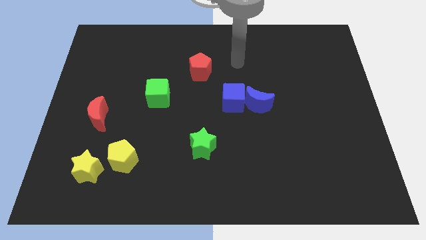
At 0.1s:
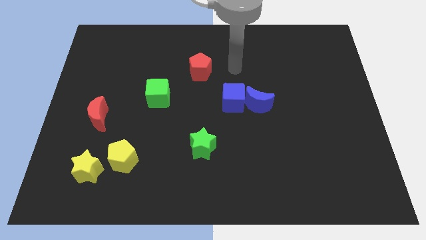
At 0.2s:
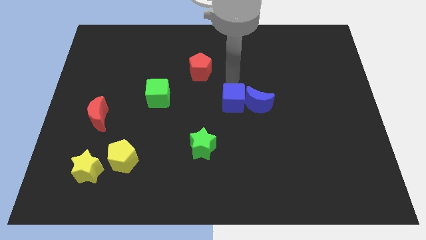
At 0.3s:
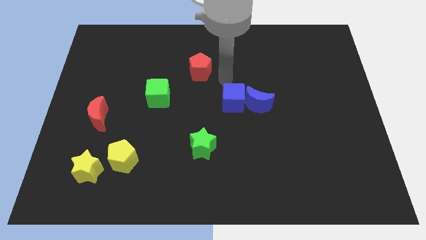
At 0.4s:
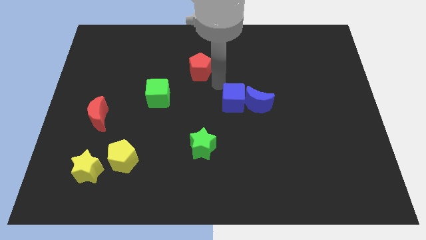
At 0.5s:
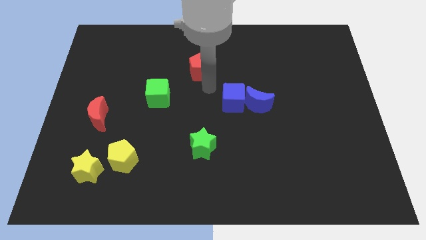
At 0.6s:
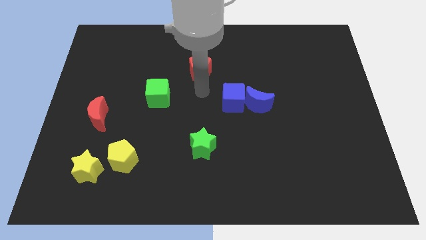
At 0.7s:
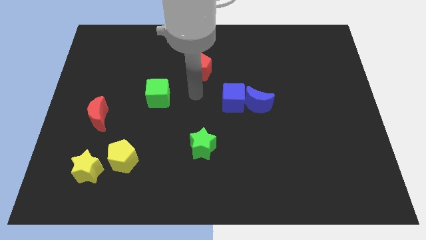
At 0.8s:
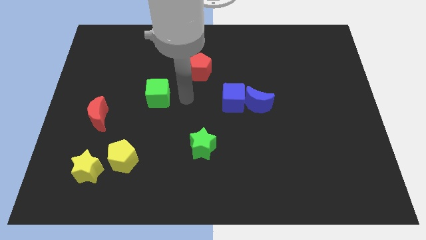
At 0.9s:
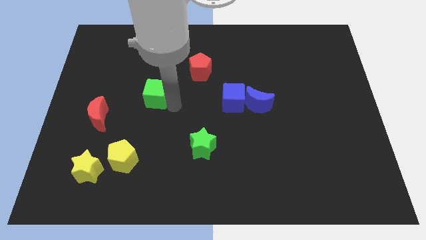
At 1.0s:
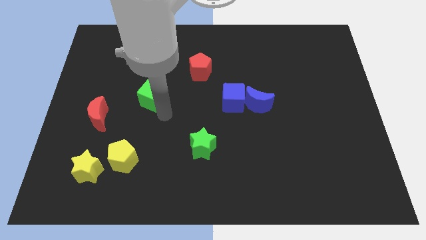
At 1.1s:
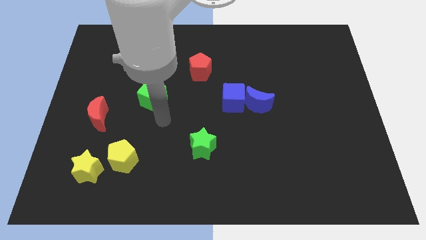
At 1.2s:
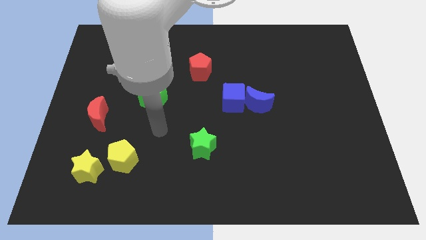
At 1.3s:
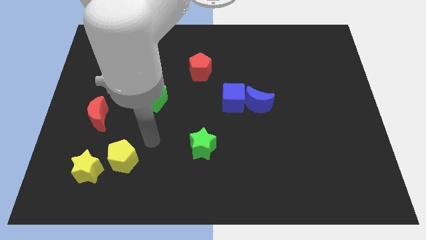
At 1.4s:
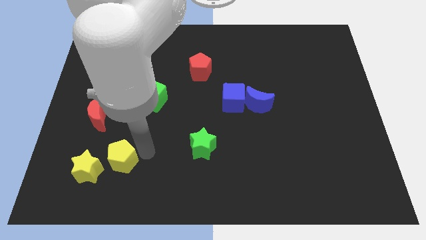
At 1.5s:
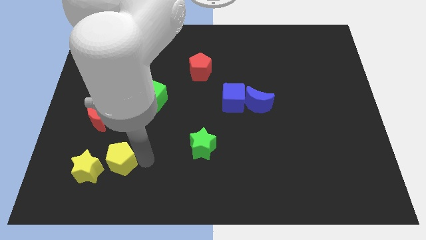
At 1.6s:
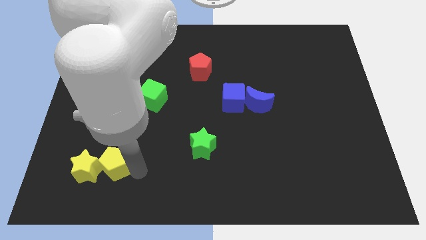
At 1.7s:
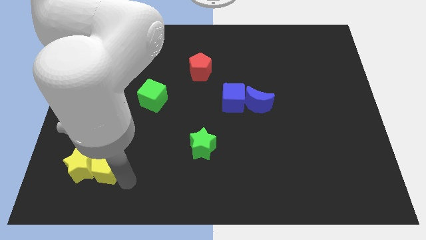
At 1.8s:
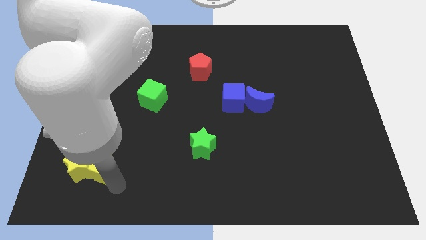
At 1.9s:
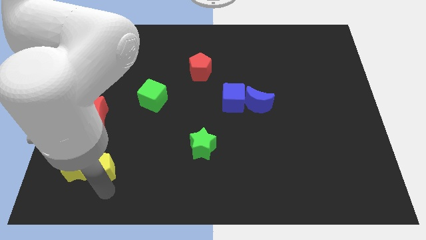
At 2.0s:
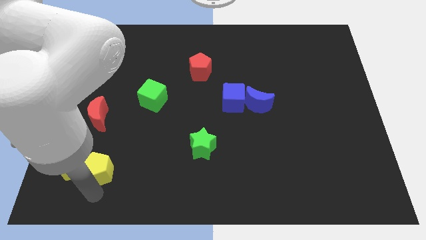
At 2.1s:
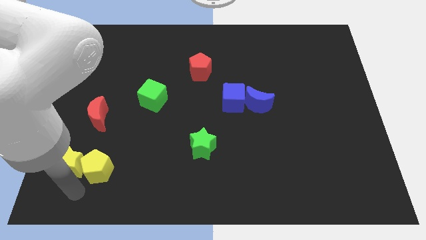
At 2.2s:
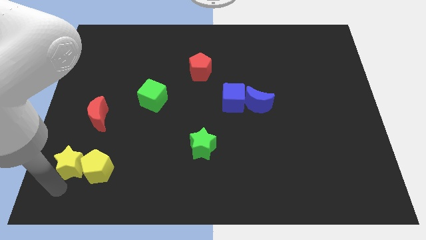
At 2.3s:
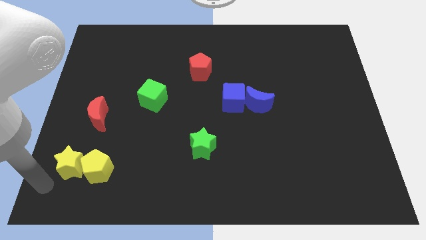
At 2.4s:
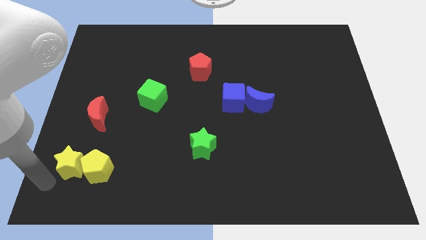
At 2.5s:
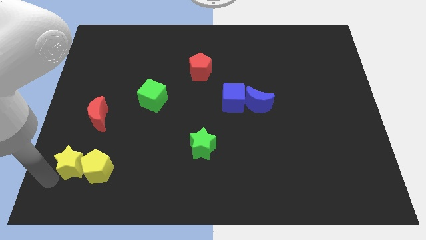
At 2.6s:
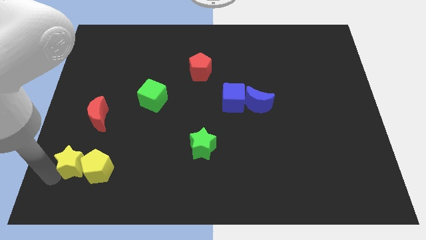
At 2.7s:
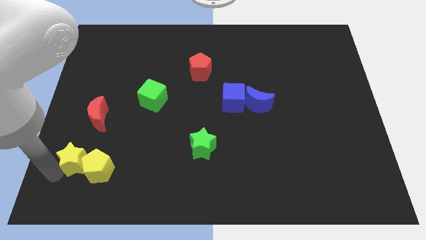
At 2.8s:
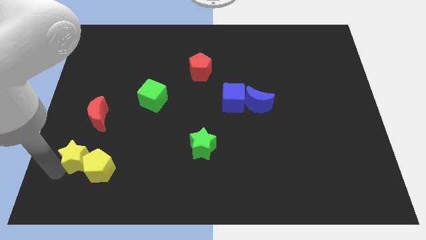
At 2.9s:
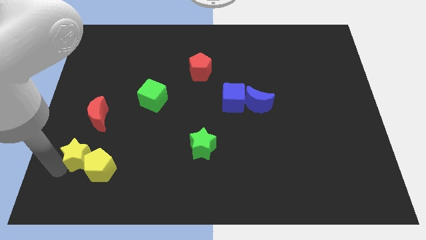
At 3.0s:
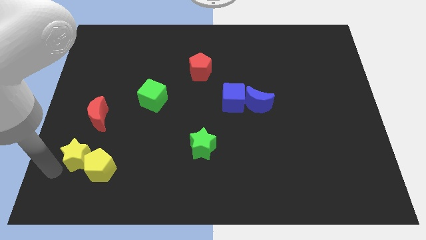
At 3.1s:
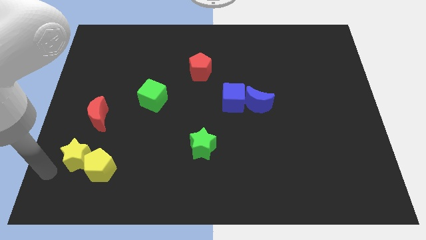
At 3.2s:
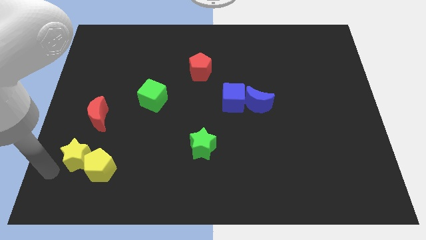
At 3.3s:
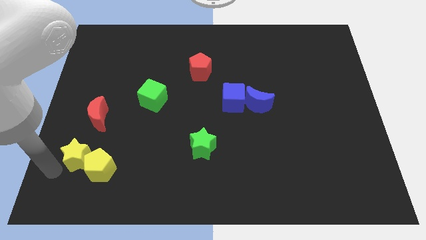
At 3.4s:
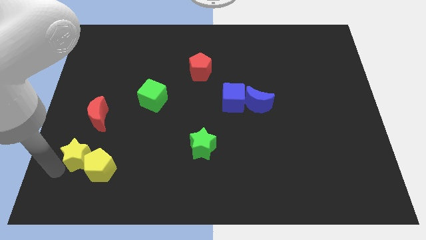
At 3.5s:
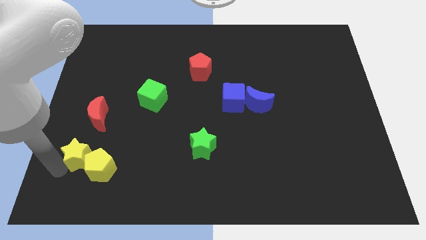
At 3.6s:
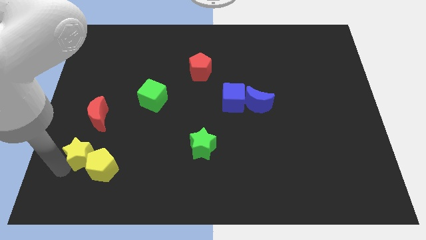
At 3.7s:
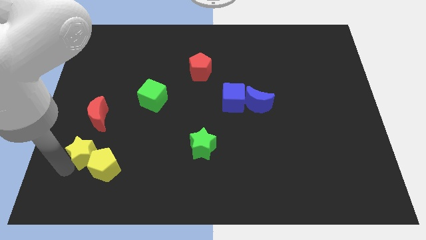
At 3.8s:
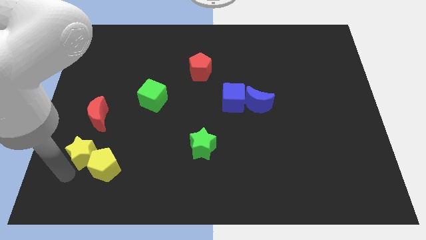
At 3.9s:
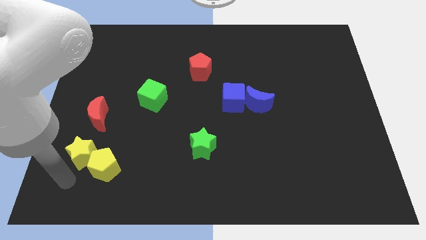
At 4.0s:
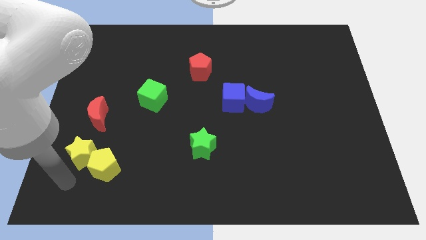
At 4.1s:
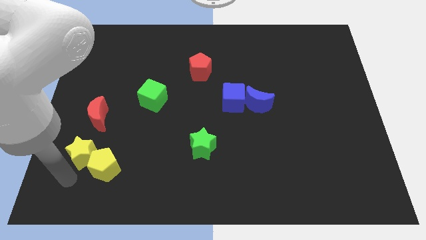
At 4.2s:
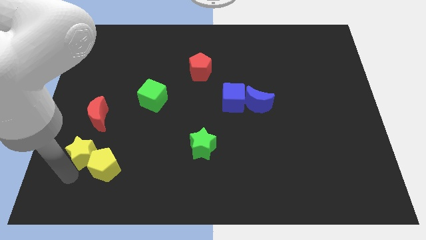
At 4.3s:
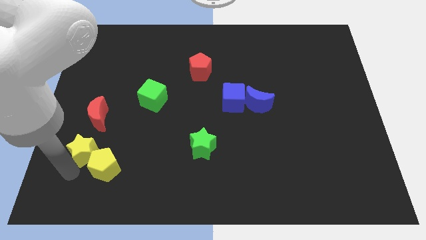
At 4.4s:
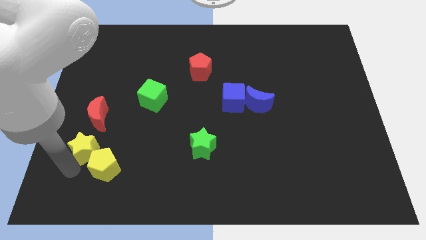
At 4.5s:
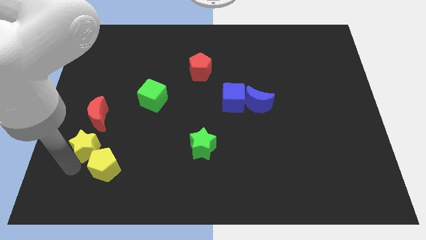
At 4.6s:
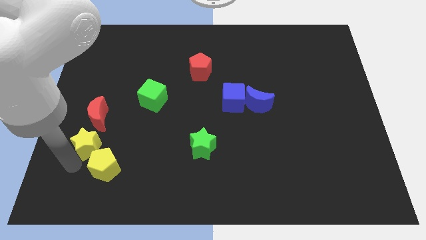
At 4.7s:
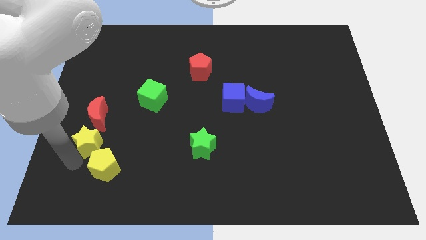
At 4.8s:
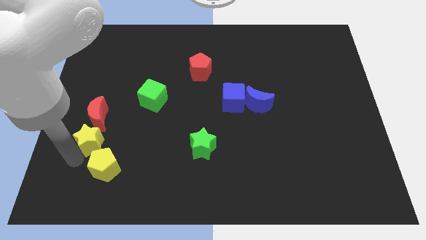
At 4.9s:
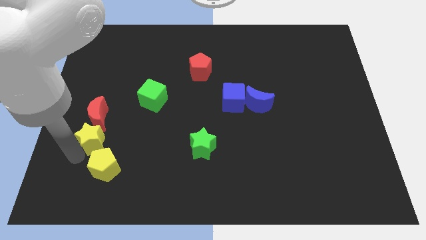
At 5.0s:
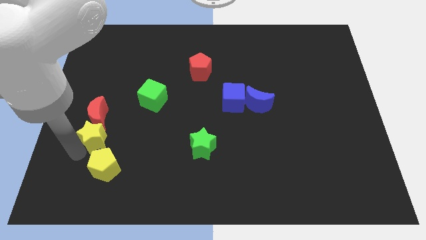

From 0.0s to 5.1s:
push the yellow star towards the red moon

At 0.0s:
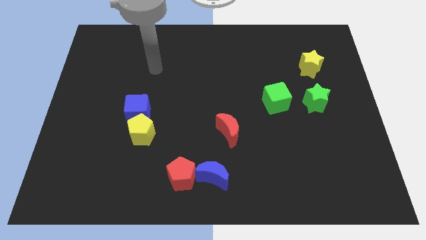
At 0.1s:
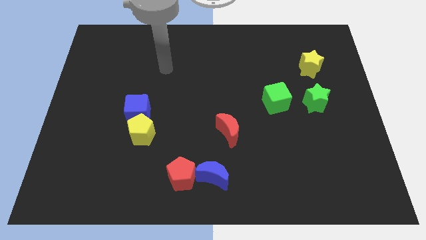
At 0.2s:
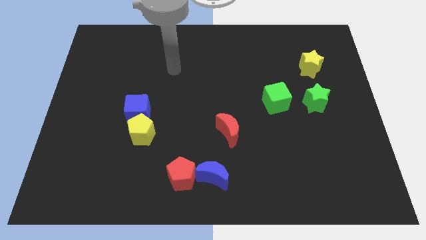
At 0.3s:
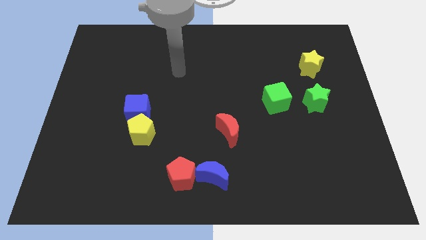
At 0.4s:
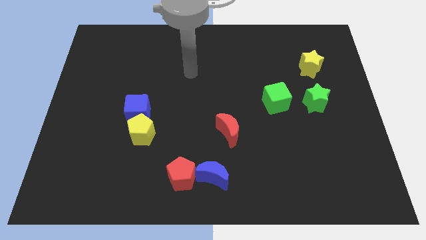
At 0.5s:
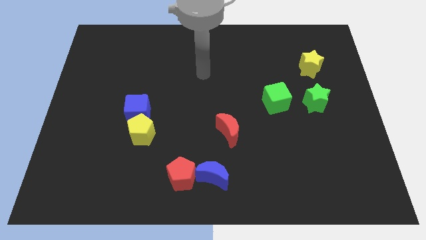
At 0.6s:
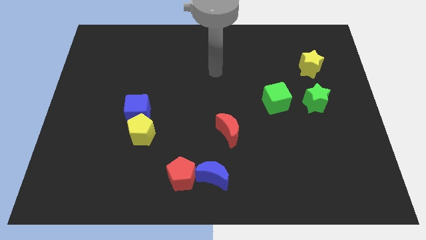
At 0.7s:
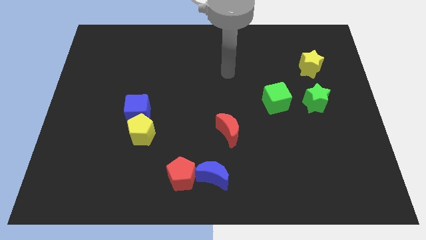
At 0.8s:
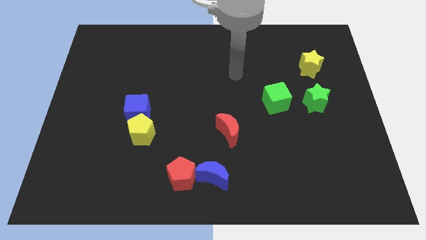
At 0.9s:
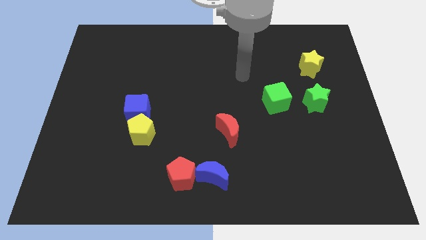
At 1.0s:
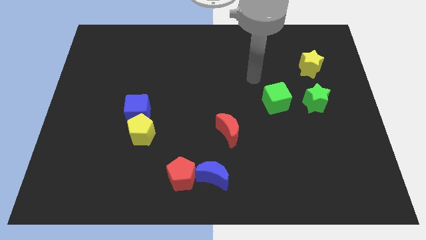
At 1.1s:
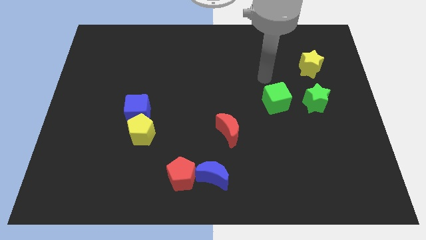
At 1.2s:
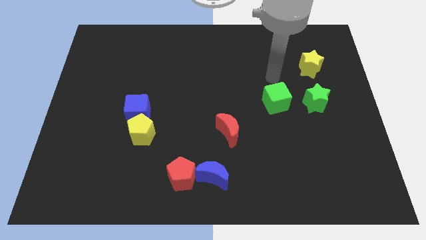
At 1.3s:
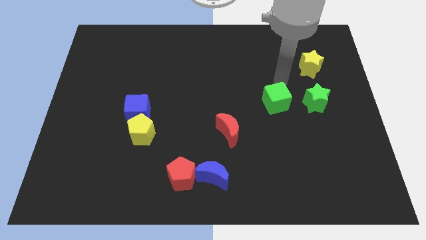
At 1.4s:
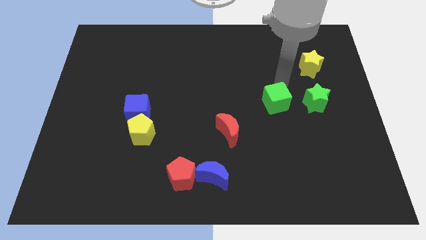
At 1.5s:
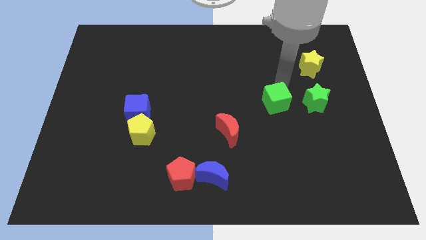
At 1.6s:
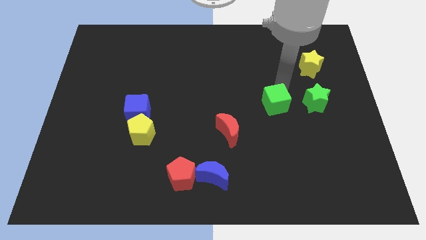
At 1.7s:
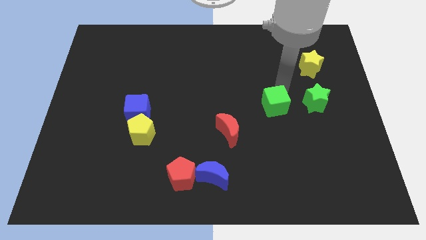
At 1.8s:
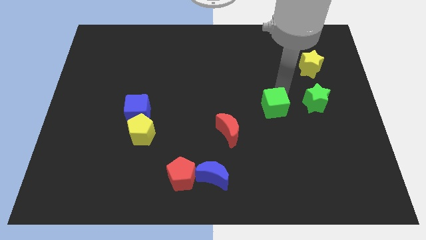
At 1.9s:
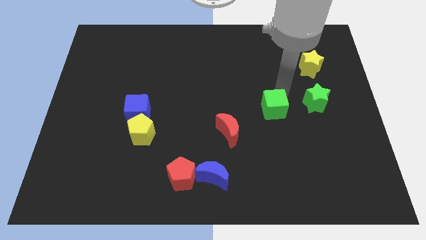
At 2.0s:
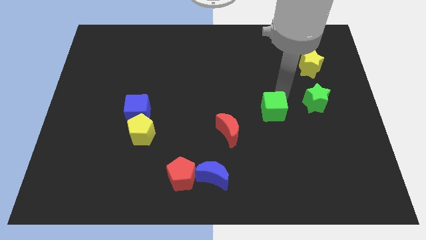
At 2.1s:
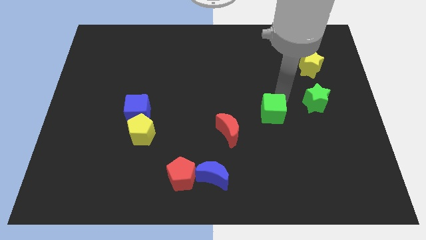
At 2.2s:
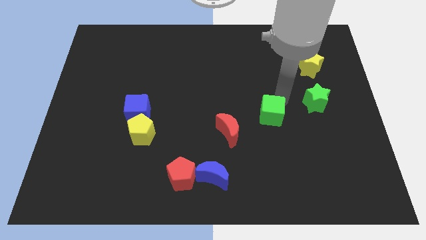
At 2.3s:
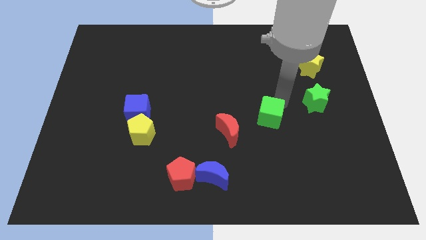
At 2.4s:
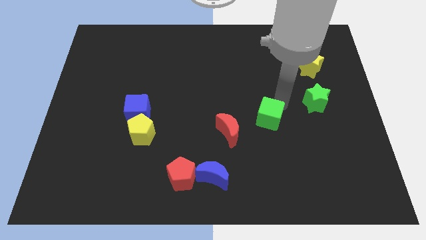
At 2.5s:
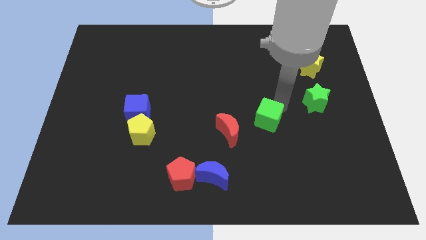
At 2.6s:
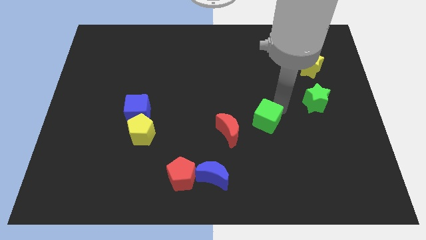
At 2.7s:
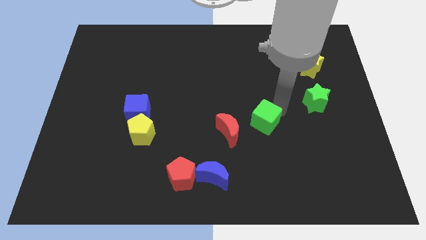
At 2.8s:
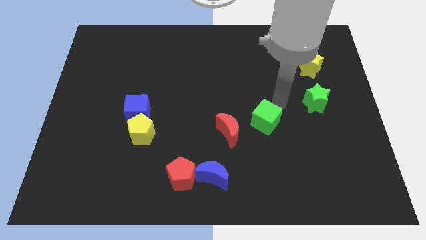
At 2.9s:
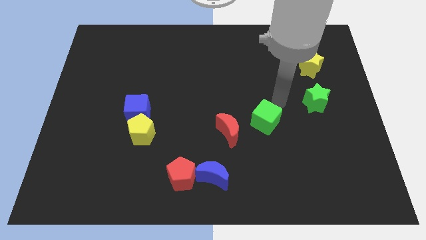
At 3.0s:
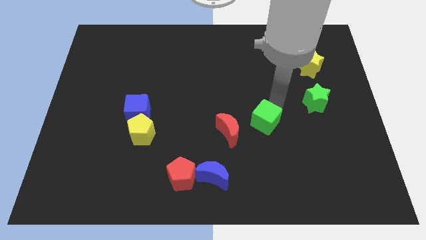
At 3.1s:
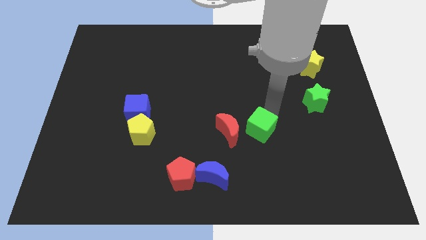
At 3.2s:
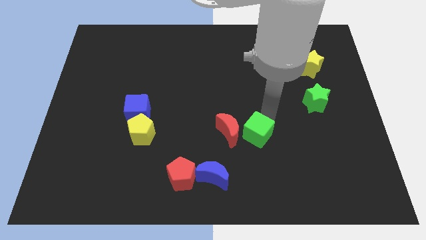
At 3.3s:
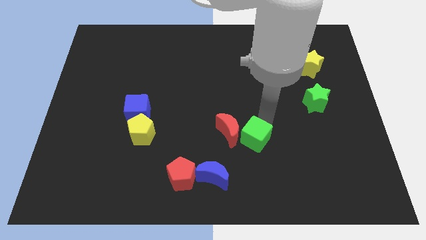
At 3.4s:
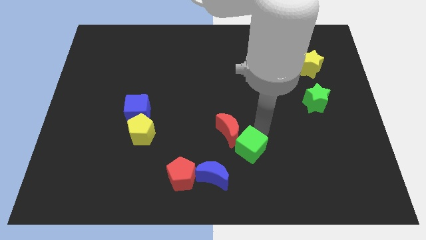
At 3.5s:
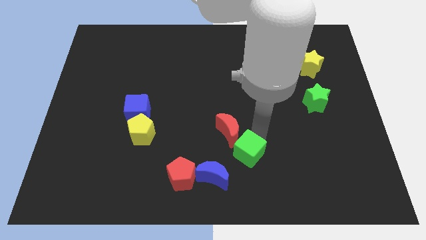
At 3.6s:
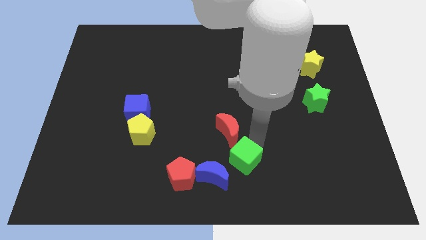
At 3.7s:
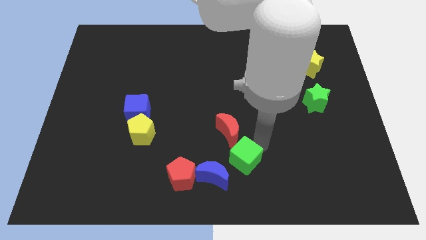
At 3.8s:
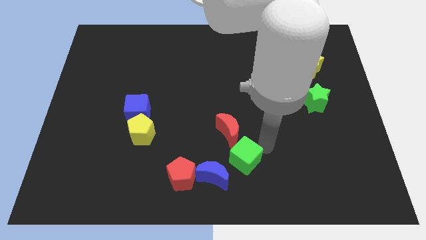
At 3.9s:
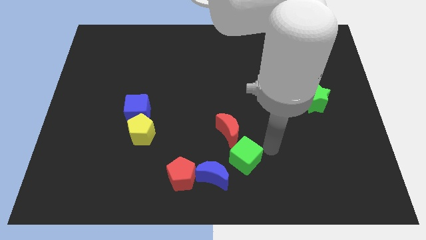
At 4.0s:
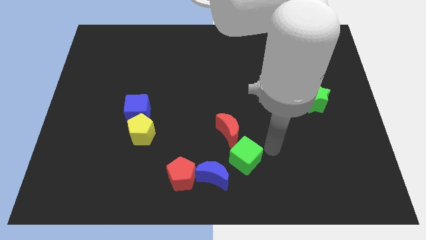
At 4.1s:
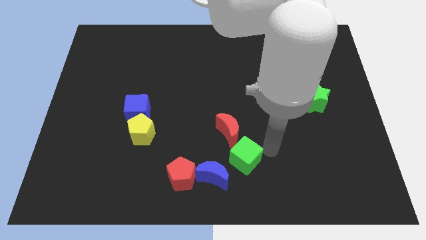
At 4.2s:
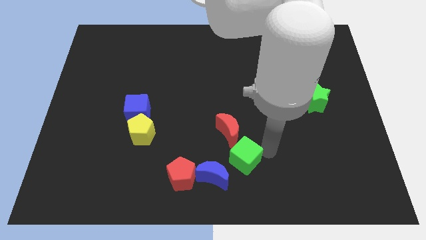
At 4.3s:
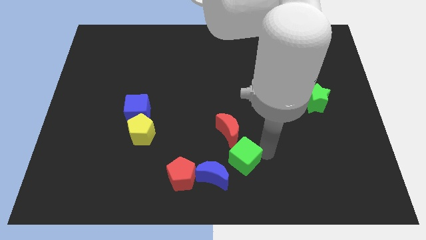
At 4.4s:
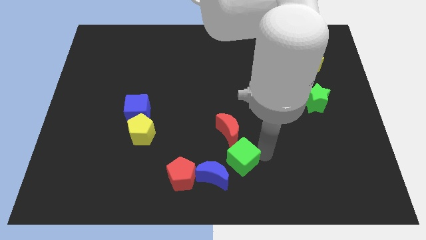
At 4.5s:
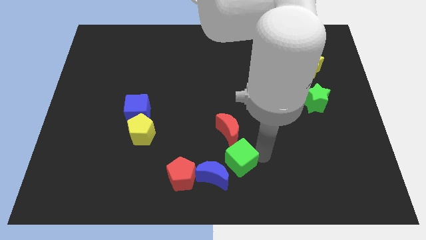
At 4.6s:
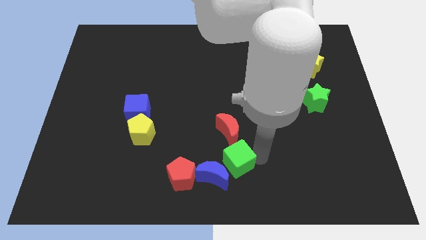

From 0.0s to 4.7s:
put the green cube towards the blue moon
